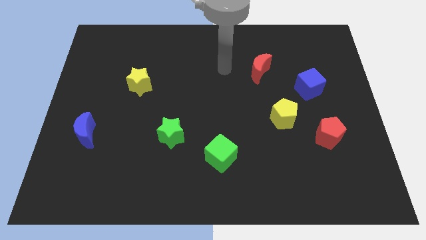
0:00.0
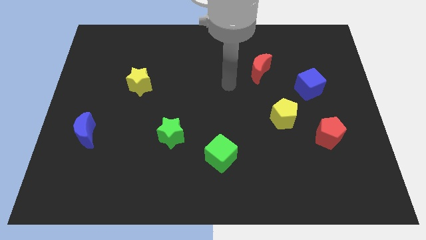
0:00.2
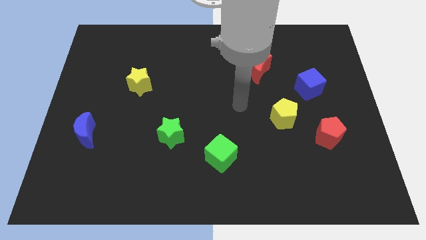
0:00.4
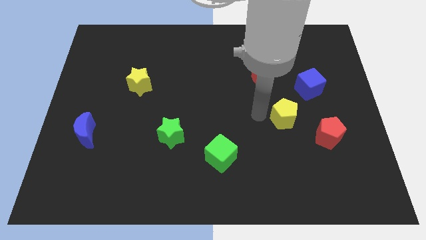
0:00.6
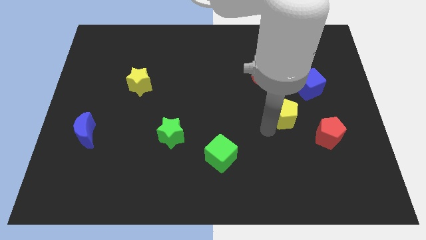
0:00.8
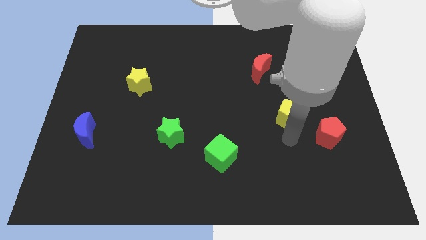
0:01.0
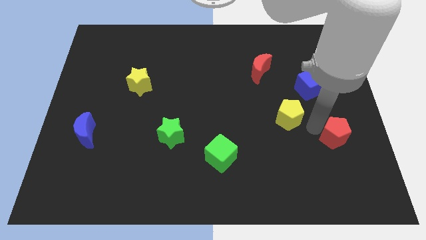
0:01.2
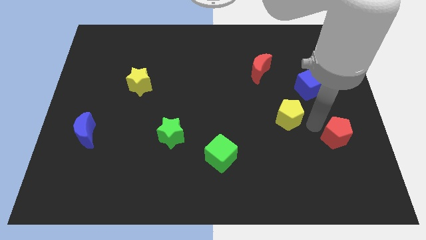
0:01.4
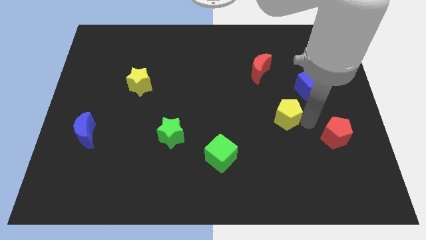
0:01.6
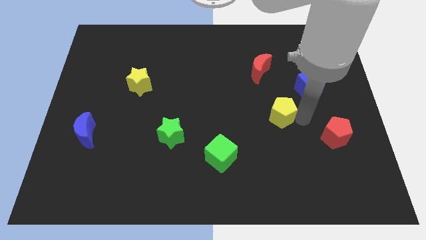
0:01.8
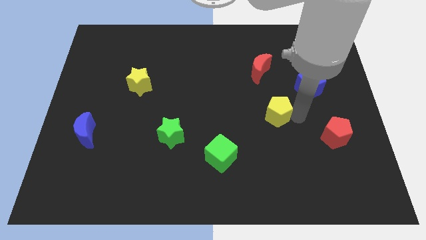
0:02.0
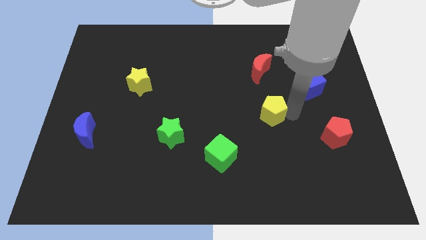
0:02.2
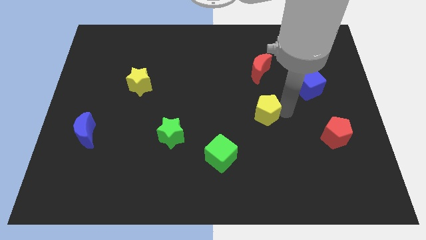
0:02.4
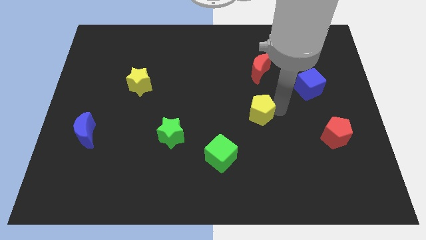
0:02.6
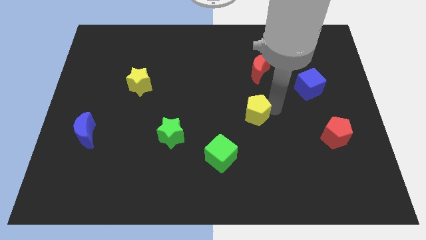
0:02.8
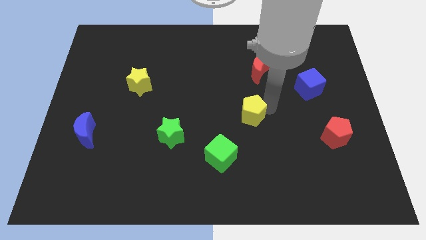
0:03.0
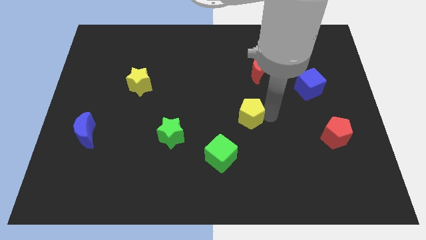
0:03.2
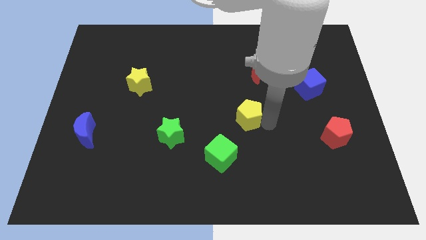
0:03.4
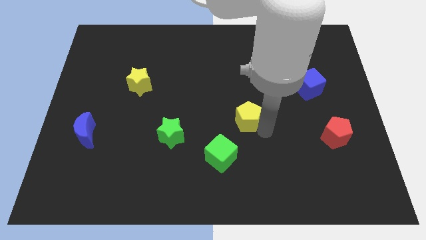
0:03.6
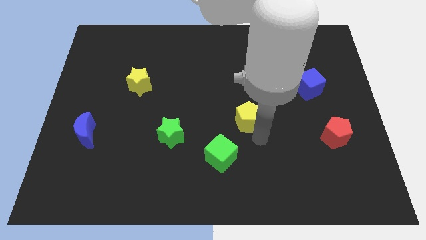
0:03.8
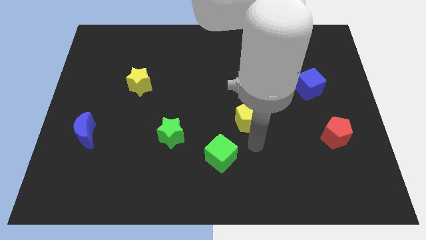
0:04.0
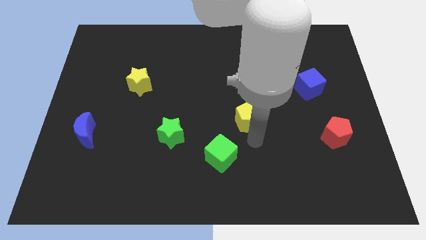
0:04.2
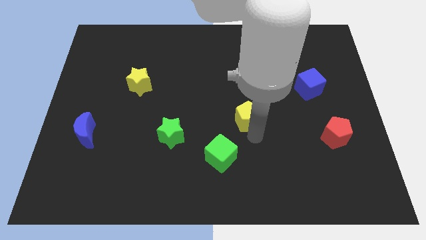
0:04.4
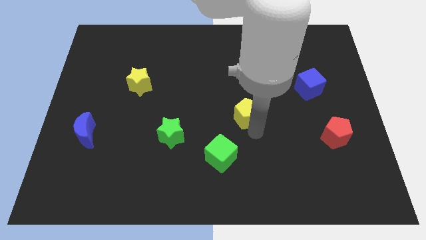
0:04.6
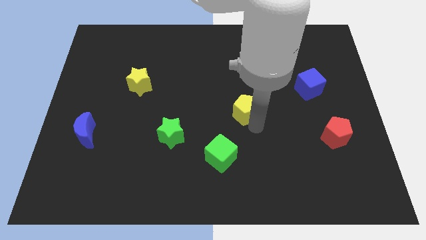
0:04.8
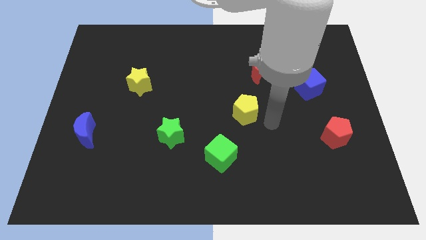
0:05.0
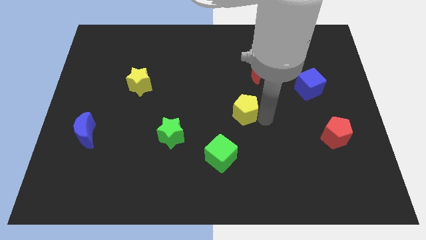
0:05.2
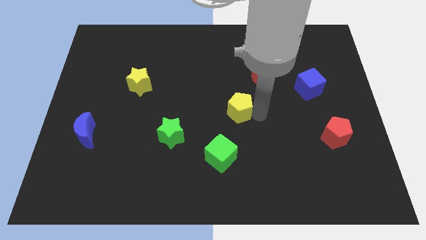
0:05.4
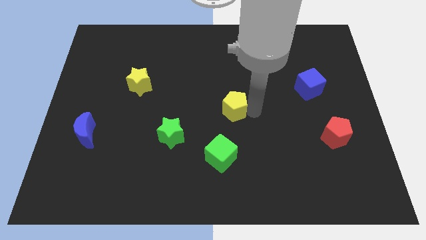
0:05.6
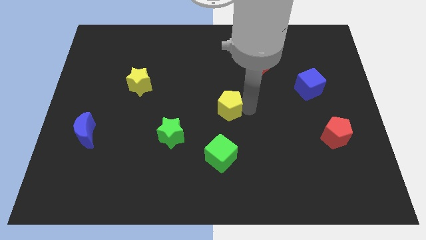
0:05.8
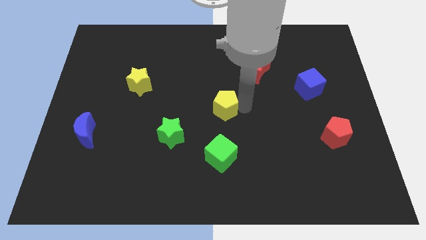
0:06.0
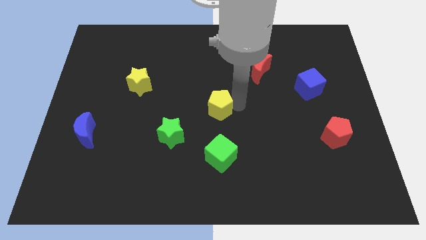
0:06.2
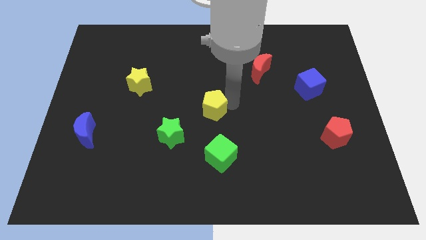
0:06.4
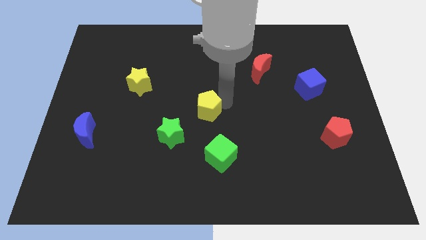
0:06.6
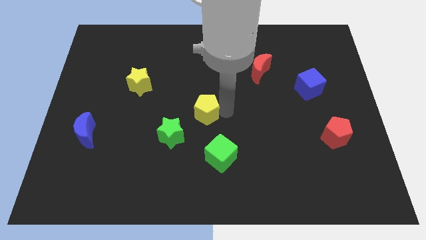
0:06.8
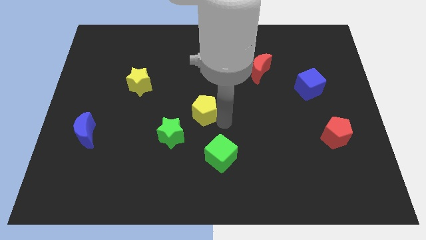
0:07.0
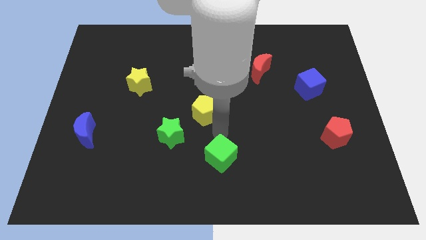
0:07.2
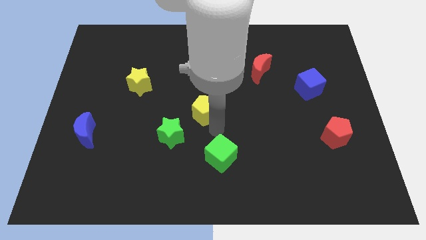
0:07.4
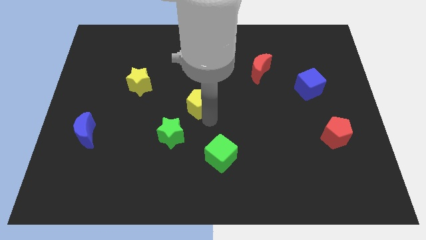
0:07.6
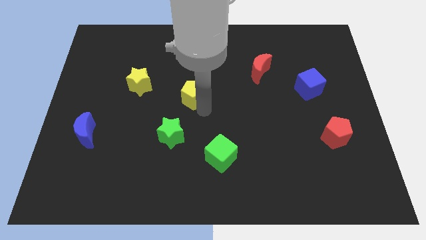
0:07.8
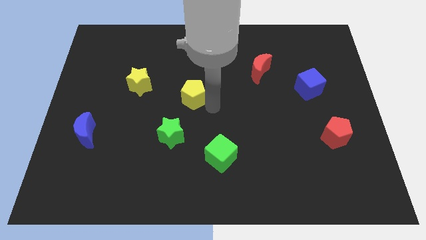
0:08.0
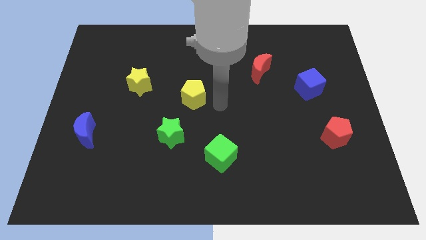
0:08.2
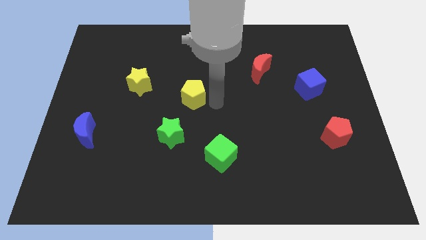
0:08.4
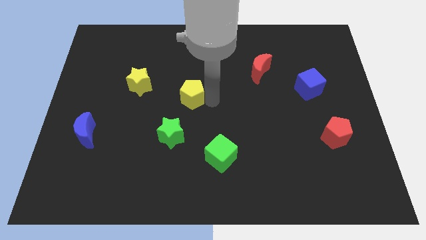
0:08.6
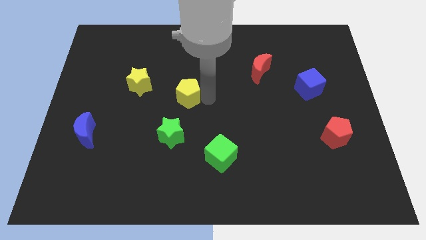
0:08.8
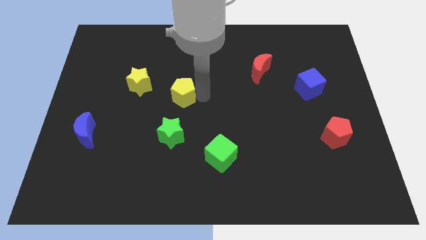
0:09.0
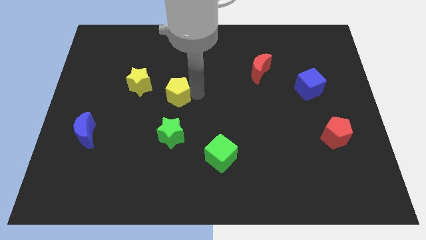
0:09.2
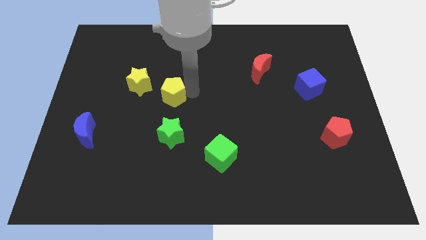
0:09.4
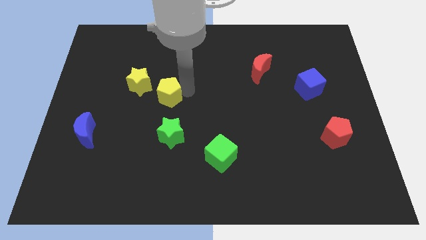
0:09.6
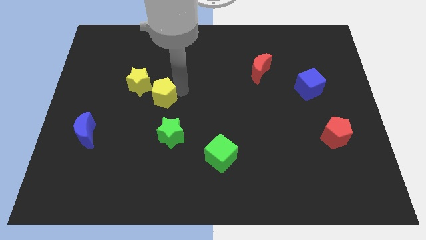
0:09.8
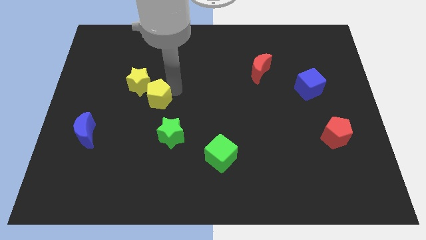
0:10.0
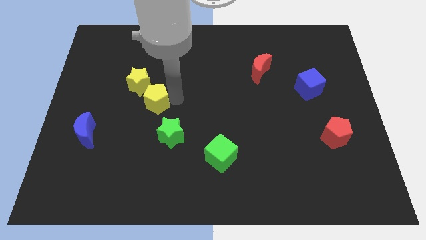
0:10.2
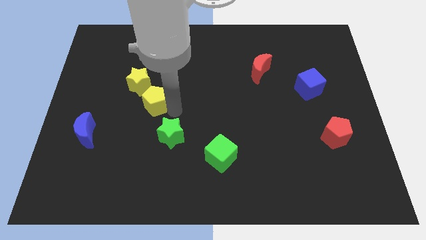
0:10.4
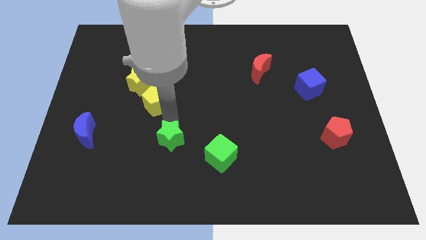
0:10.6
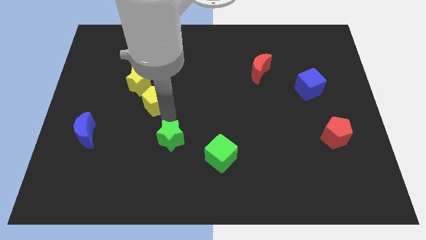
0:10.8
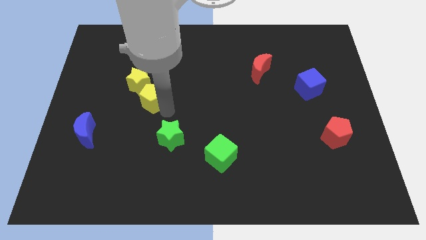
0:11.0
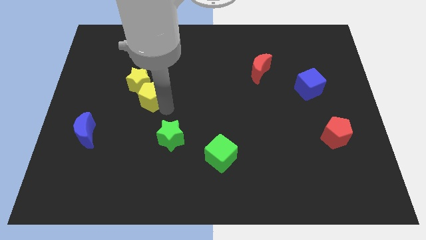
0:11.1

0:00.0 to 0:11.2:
push the yellow pentagon towards the yellow star

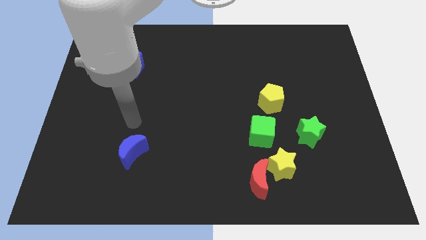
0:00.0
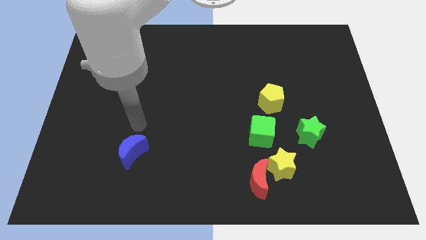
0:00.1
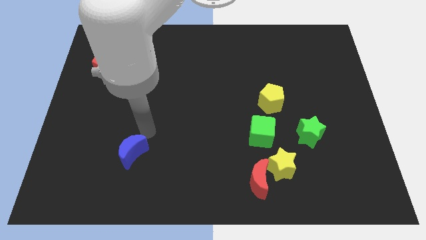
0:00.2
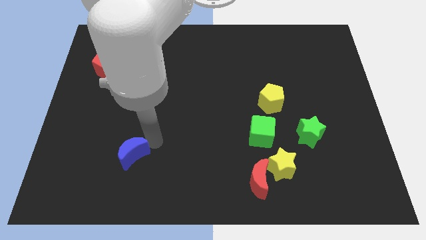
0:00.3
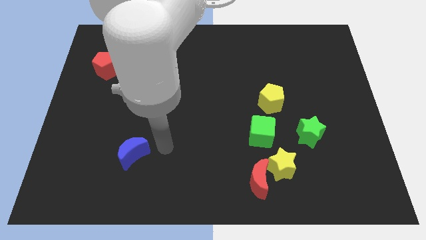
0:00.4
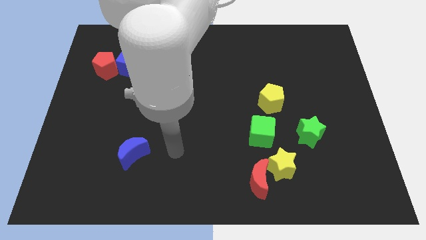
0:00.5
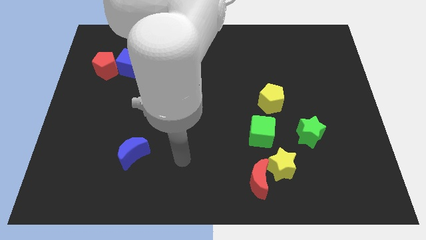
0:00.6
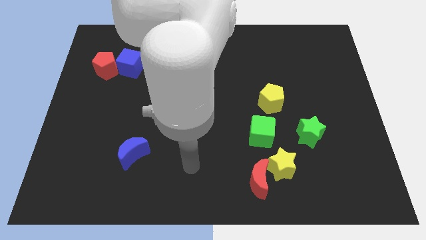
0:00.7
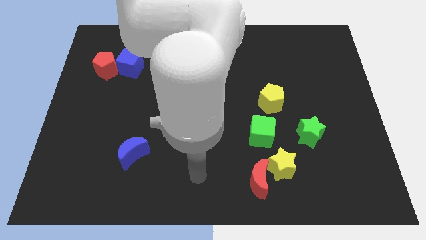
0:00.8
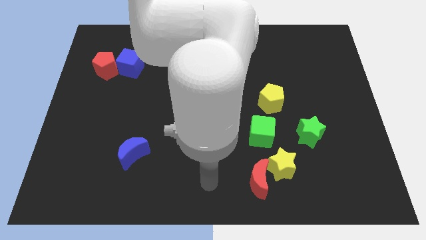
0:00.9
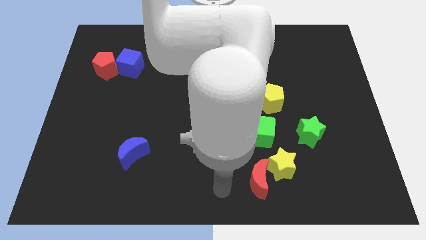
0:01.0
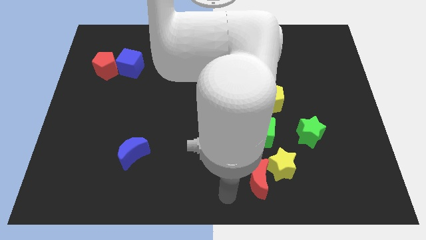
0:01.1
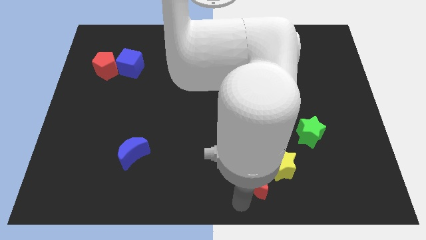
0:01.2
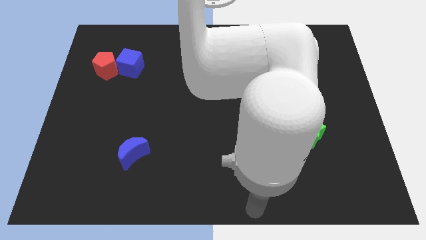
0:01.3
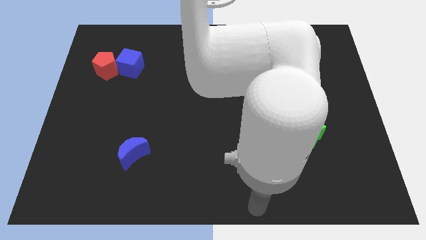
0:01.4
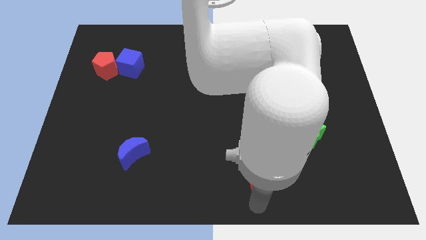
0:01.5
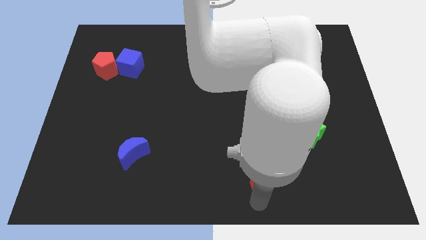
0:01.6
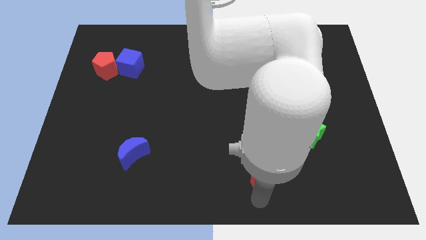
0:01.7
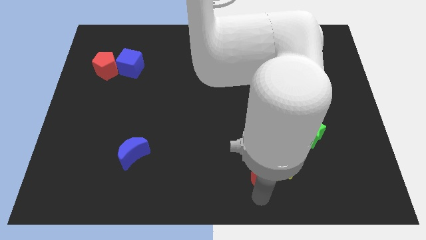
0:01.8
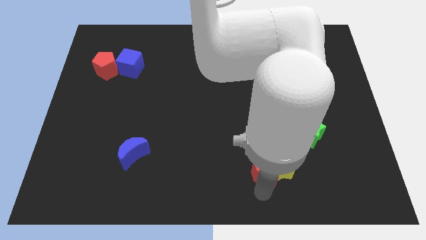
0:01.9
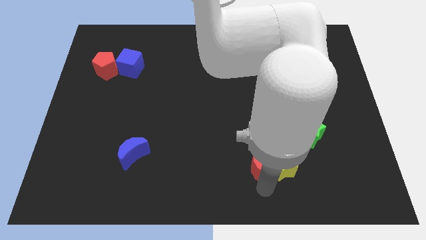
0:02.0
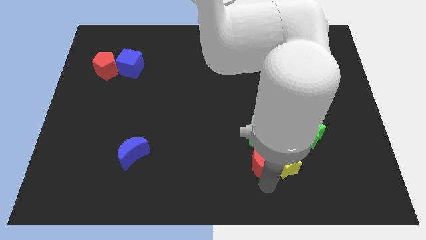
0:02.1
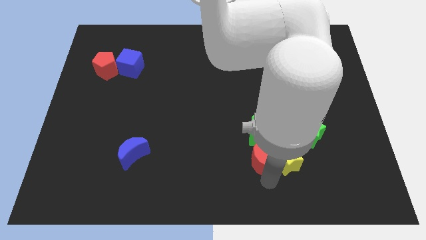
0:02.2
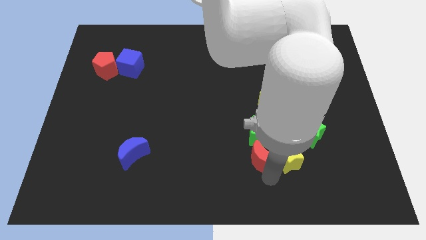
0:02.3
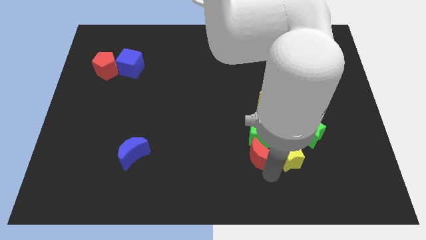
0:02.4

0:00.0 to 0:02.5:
put the red moon close to the green cube
